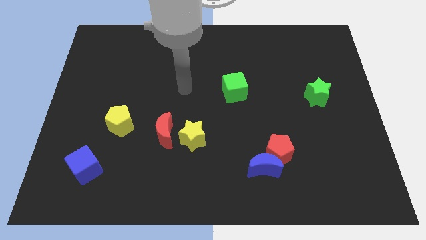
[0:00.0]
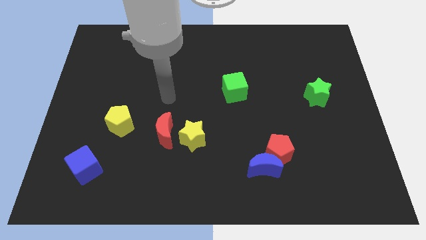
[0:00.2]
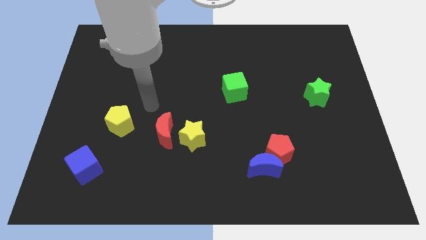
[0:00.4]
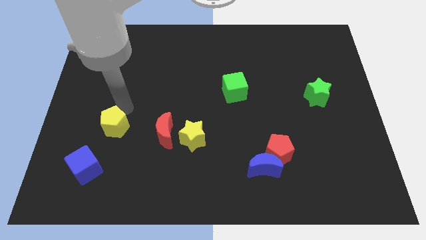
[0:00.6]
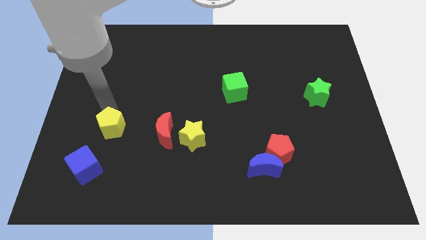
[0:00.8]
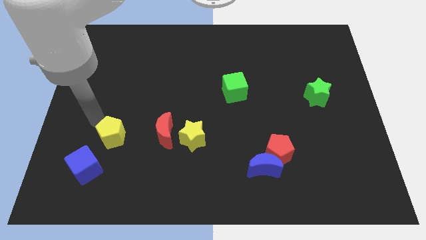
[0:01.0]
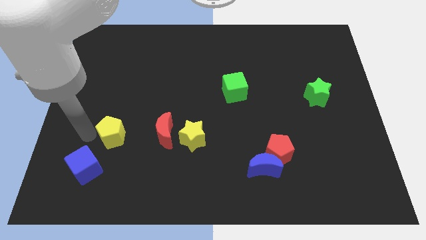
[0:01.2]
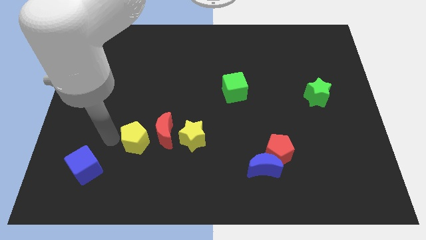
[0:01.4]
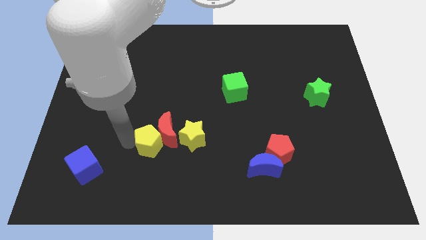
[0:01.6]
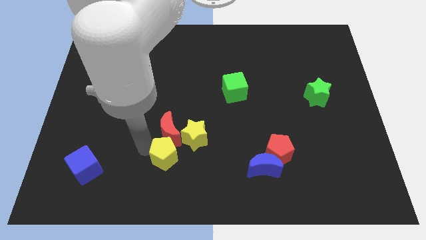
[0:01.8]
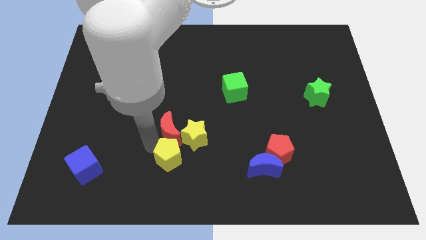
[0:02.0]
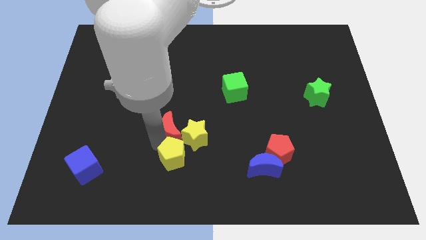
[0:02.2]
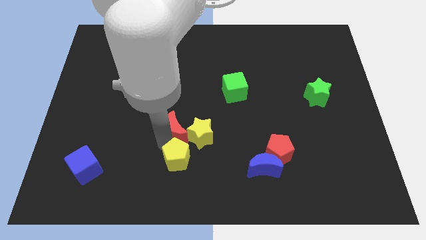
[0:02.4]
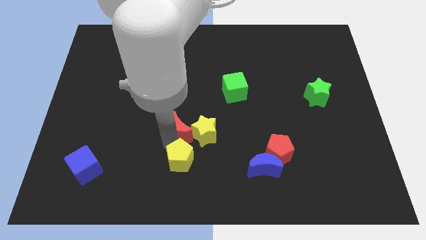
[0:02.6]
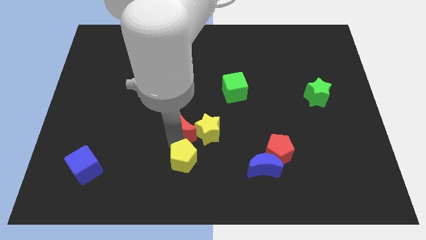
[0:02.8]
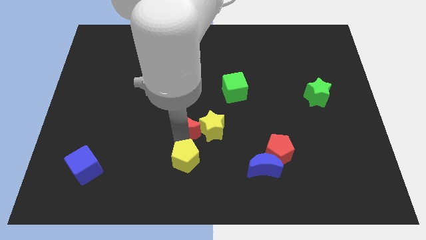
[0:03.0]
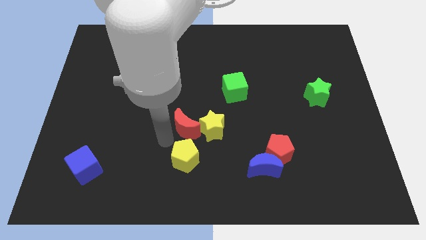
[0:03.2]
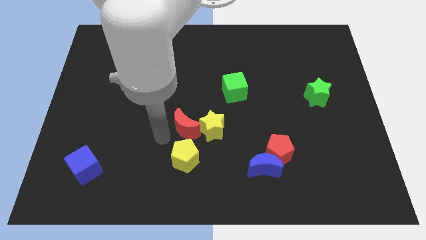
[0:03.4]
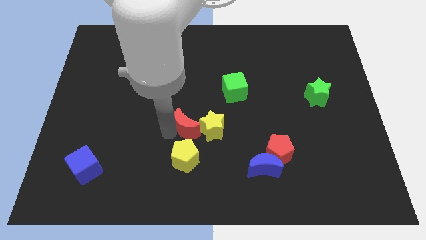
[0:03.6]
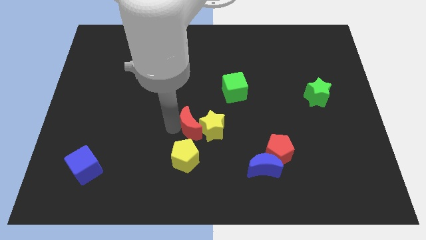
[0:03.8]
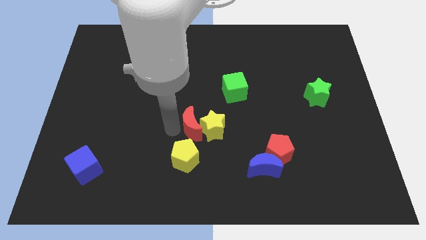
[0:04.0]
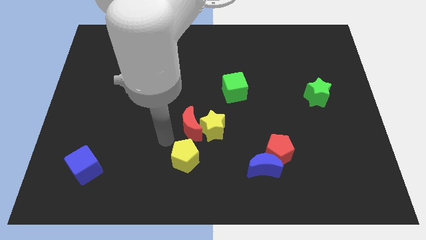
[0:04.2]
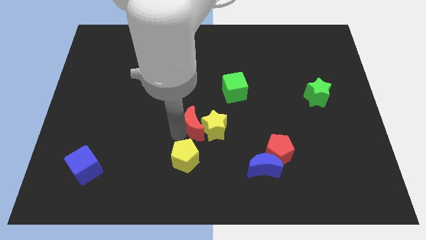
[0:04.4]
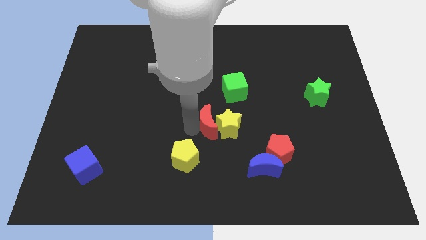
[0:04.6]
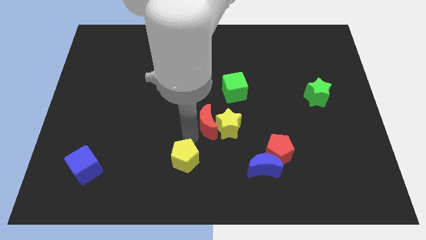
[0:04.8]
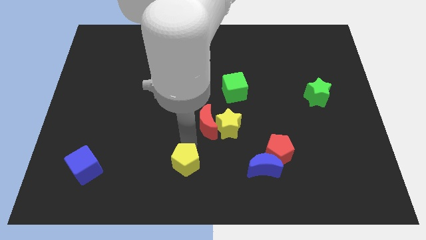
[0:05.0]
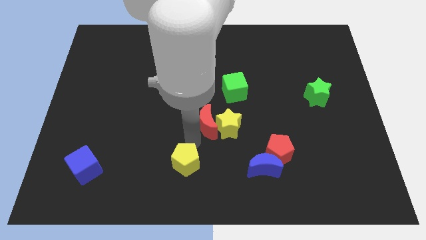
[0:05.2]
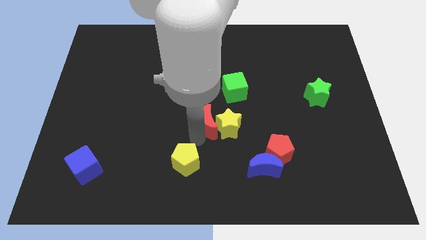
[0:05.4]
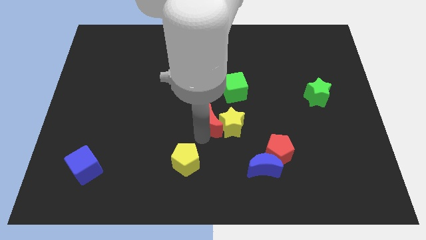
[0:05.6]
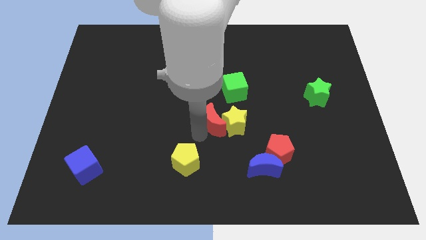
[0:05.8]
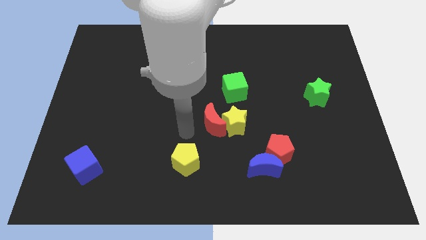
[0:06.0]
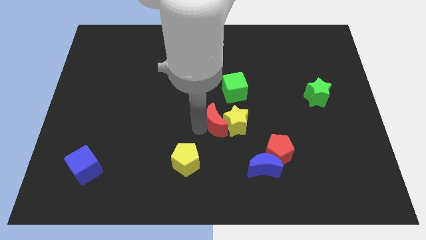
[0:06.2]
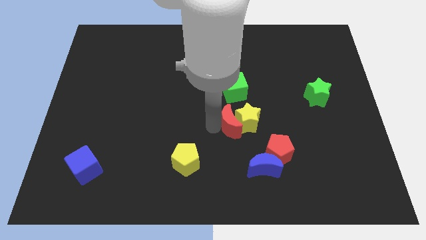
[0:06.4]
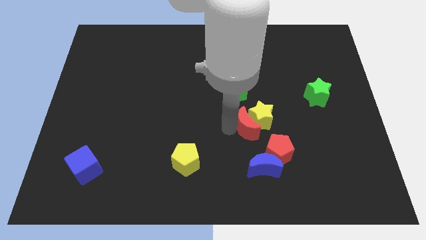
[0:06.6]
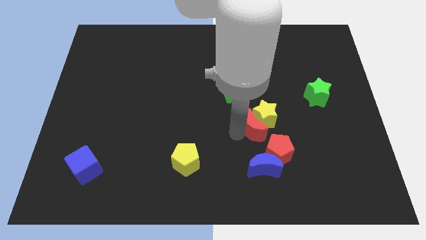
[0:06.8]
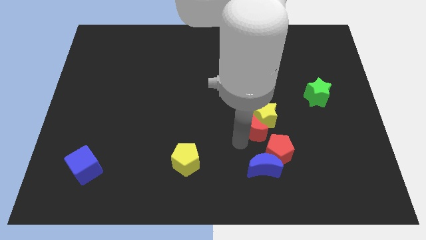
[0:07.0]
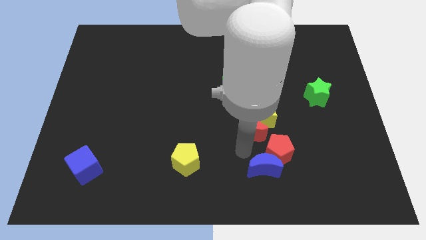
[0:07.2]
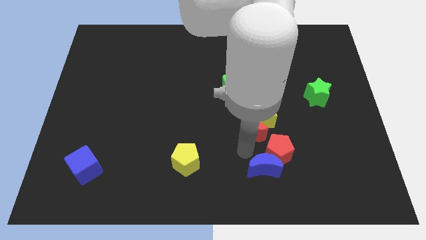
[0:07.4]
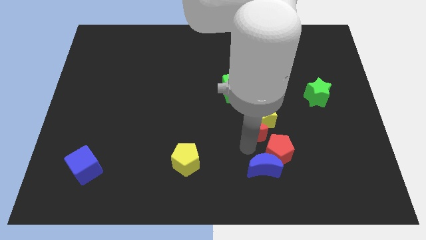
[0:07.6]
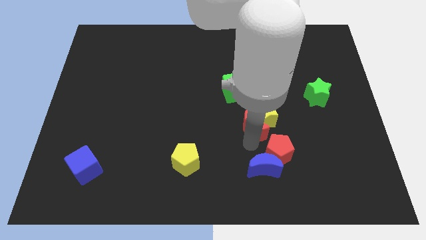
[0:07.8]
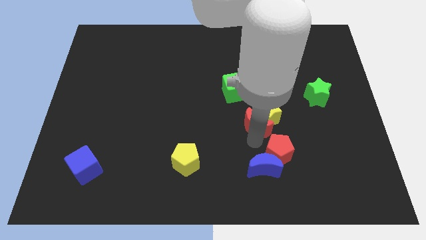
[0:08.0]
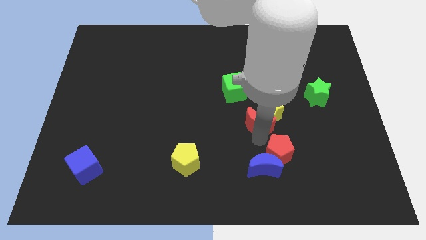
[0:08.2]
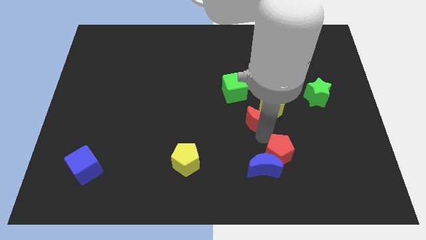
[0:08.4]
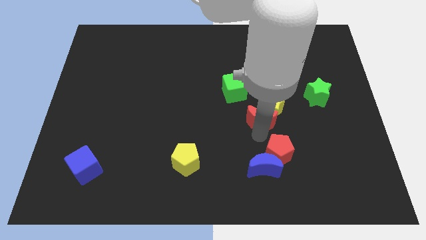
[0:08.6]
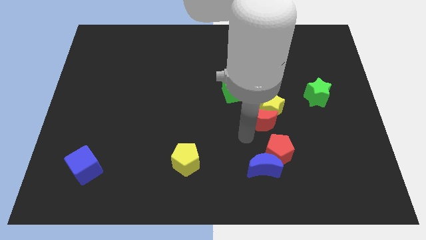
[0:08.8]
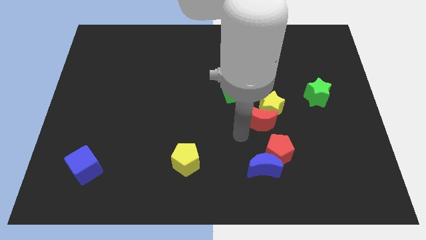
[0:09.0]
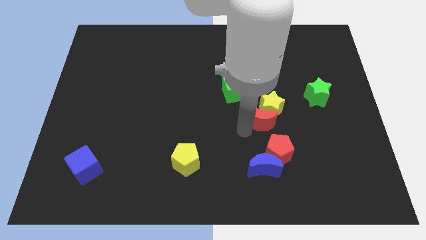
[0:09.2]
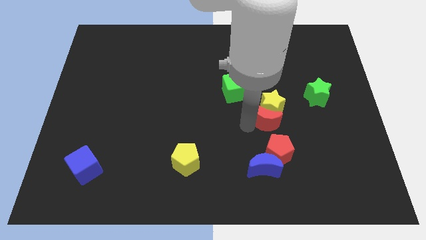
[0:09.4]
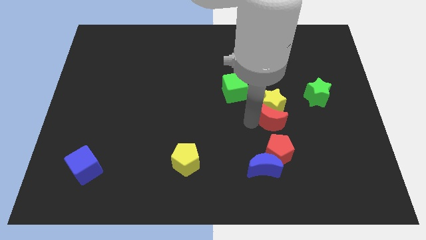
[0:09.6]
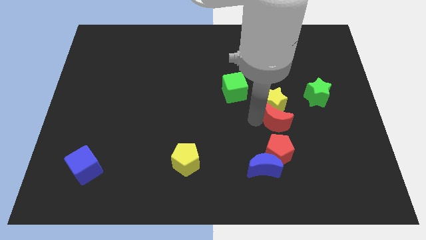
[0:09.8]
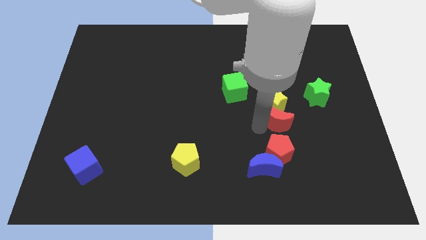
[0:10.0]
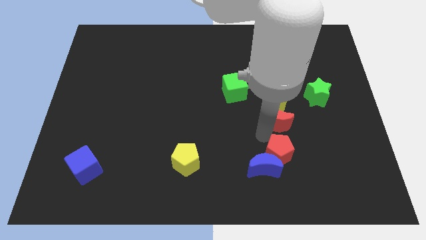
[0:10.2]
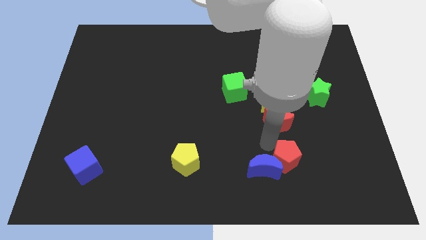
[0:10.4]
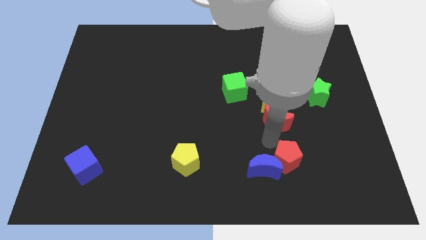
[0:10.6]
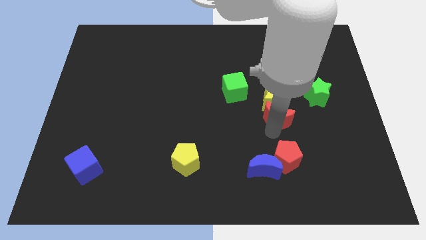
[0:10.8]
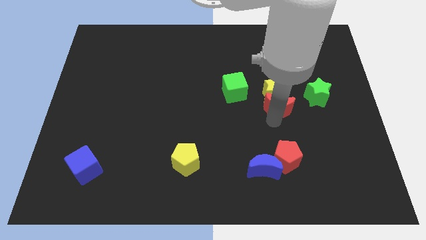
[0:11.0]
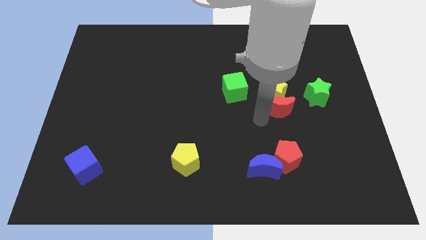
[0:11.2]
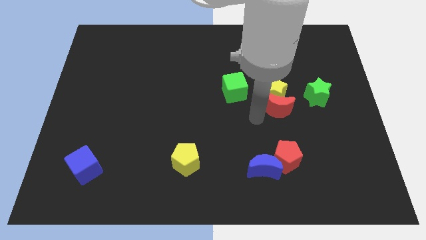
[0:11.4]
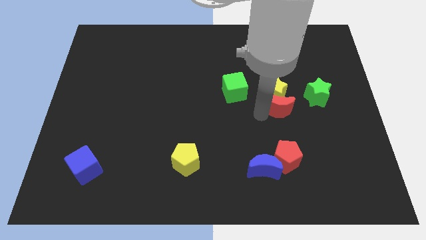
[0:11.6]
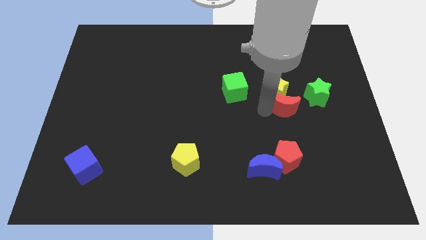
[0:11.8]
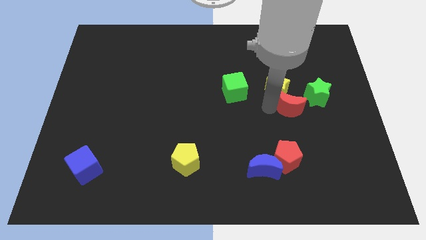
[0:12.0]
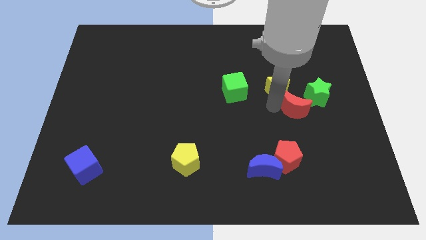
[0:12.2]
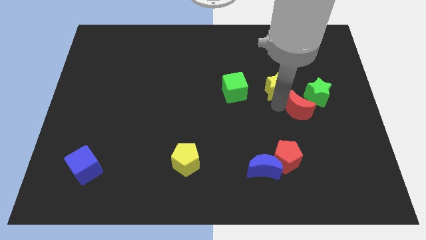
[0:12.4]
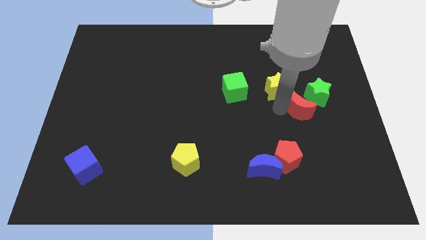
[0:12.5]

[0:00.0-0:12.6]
slide the red moon next to the green star
